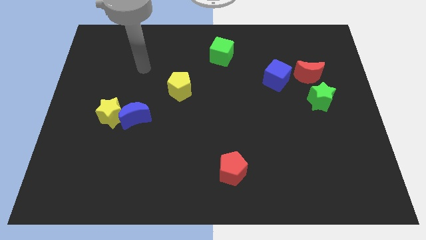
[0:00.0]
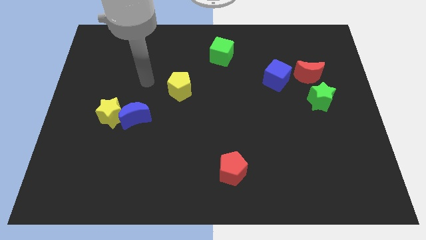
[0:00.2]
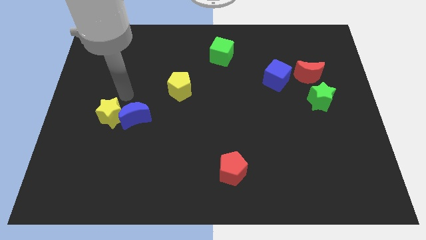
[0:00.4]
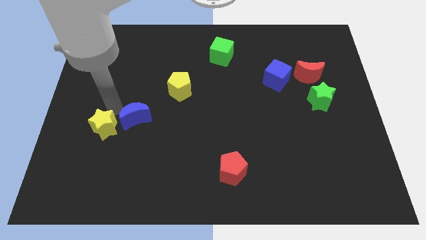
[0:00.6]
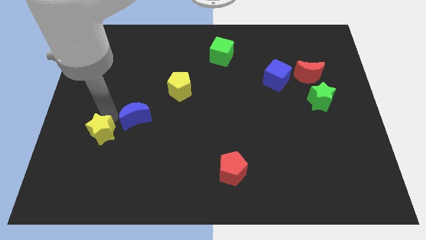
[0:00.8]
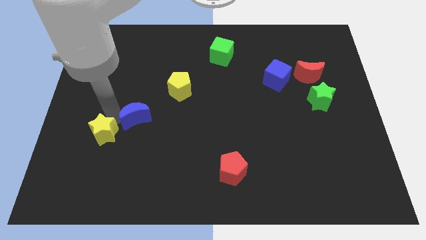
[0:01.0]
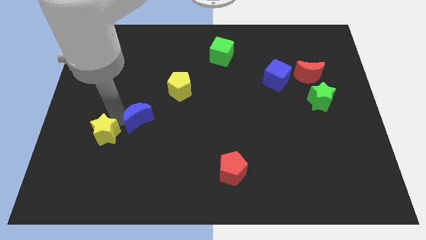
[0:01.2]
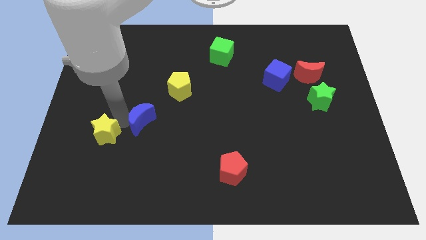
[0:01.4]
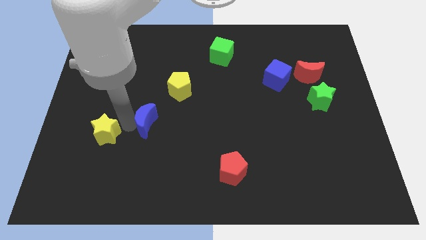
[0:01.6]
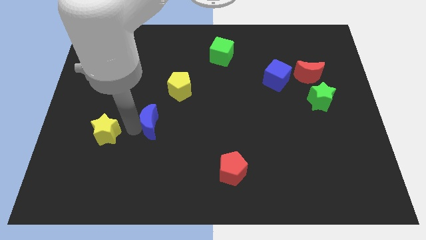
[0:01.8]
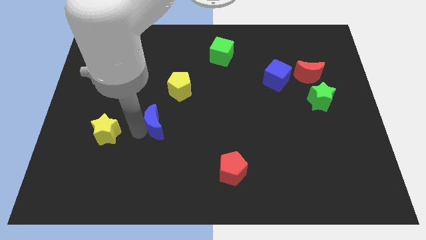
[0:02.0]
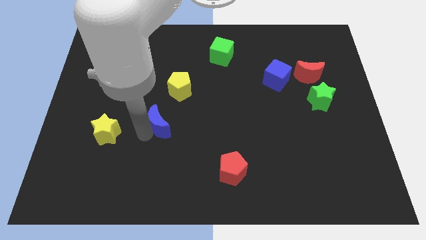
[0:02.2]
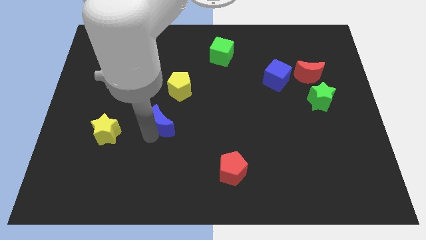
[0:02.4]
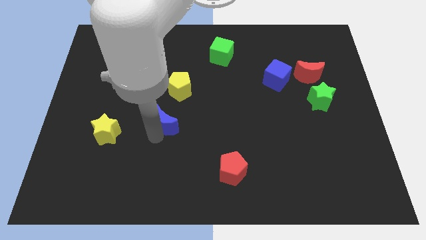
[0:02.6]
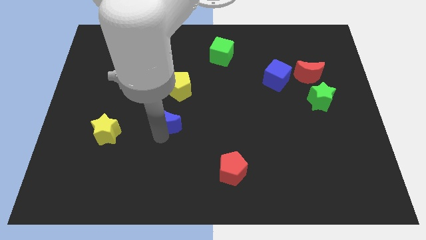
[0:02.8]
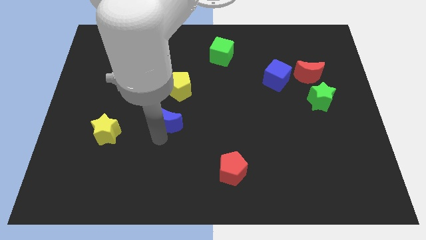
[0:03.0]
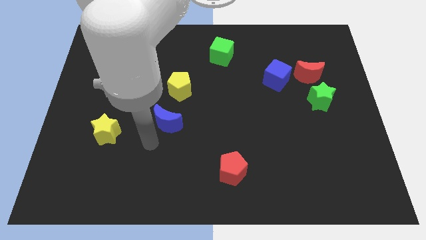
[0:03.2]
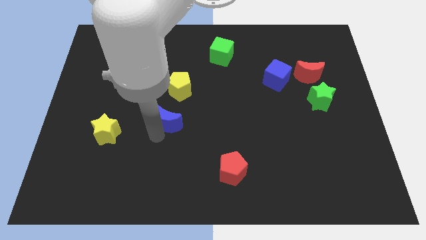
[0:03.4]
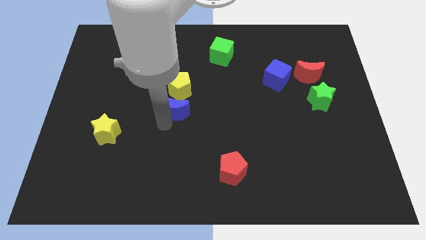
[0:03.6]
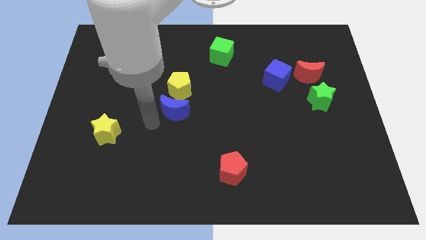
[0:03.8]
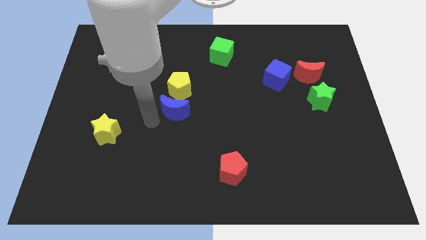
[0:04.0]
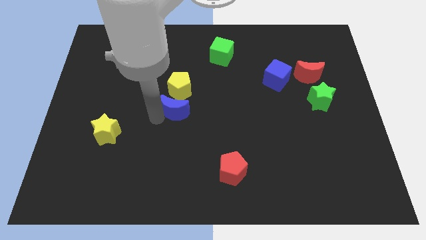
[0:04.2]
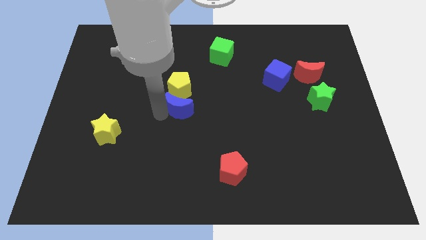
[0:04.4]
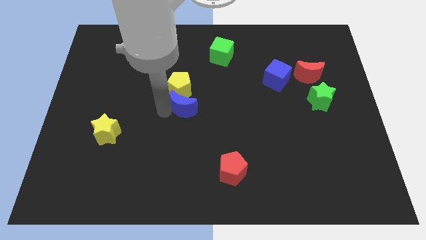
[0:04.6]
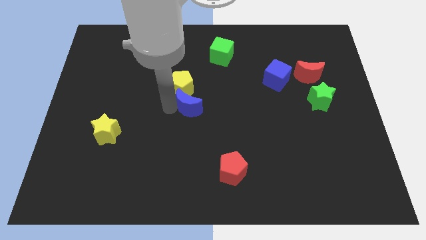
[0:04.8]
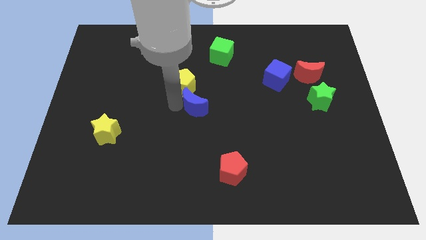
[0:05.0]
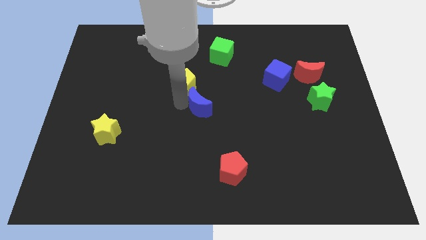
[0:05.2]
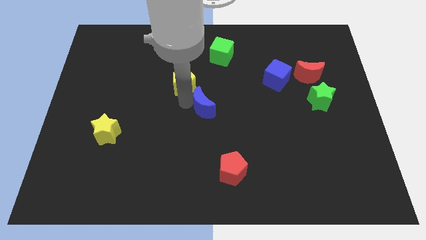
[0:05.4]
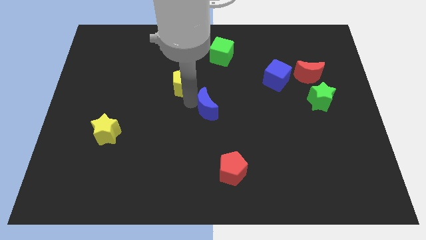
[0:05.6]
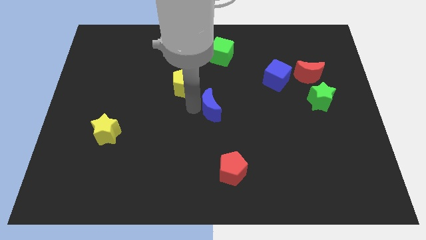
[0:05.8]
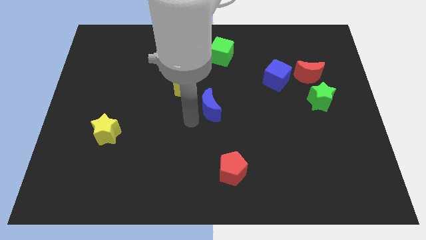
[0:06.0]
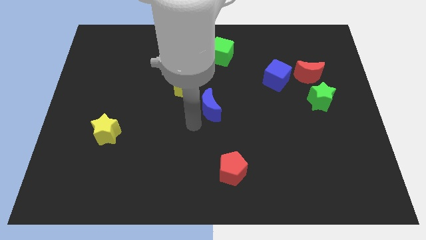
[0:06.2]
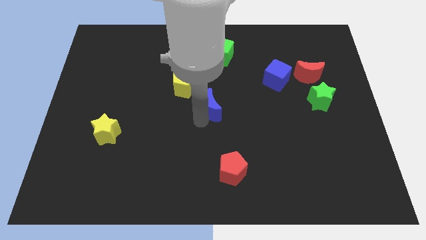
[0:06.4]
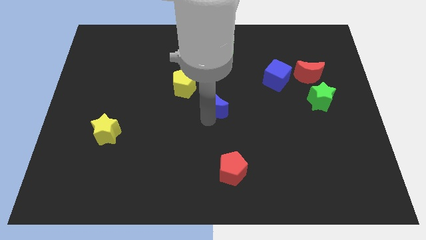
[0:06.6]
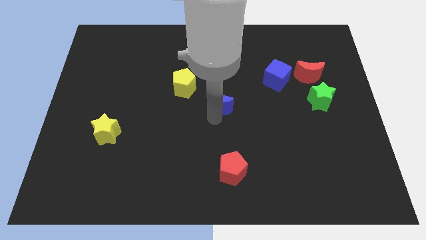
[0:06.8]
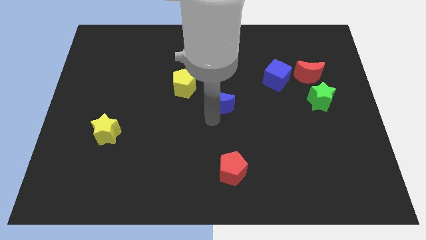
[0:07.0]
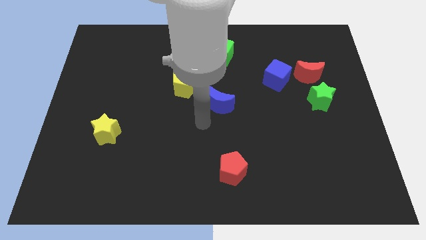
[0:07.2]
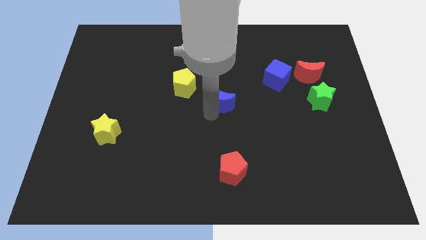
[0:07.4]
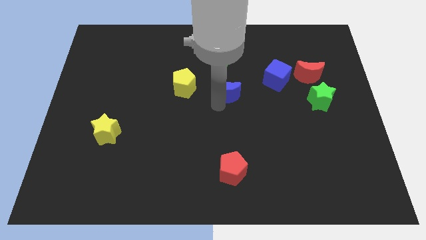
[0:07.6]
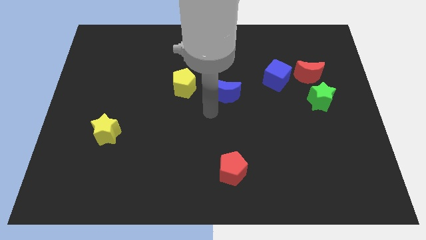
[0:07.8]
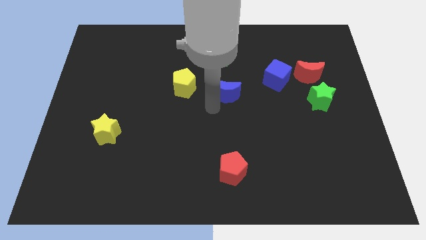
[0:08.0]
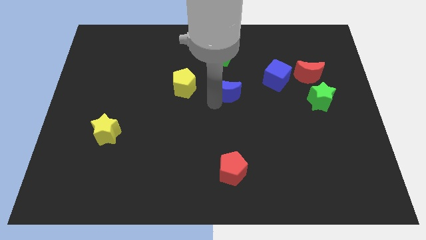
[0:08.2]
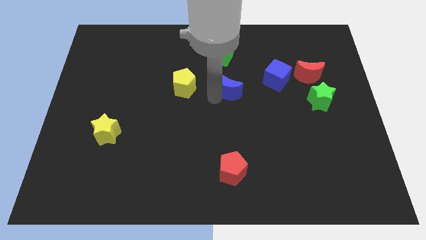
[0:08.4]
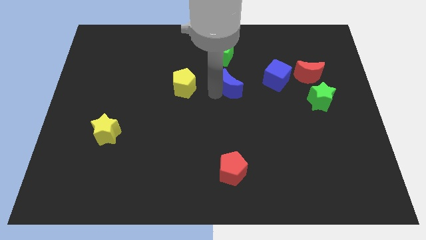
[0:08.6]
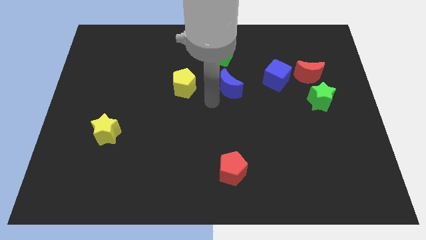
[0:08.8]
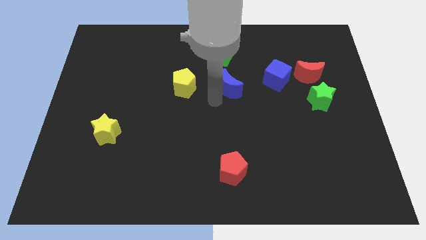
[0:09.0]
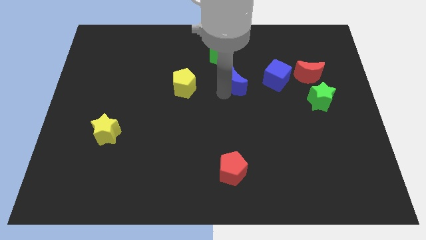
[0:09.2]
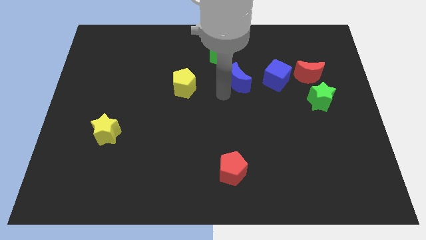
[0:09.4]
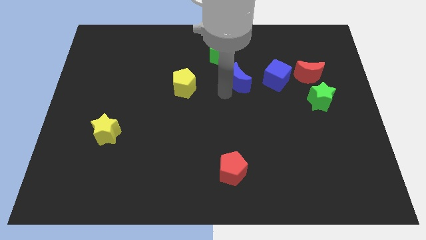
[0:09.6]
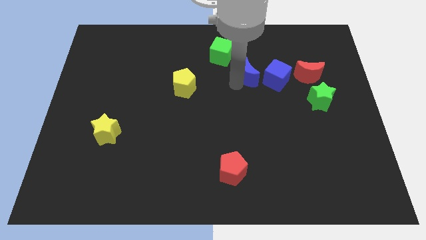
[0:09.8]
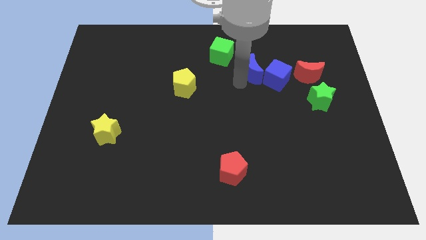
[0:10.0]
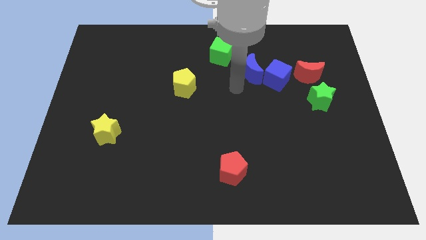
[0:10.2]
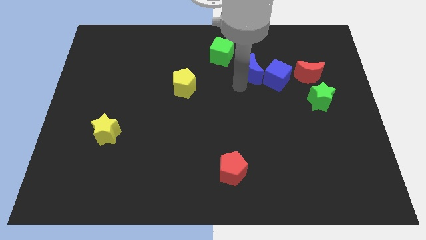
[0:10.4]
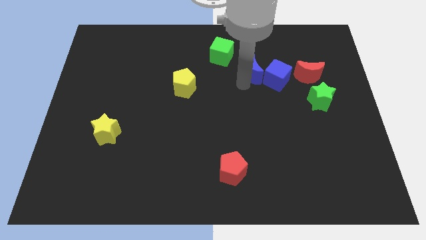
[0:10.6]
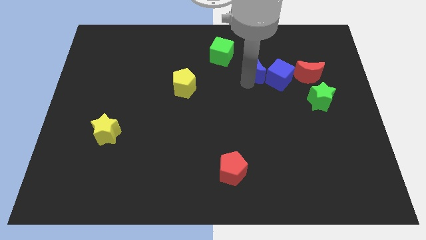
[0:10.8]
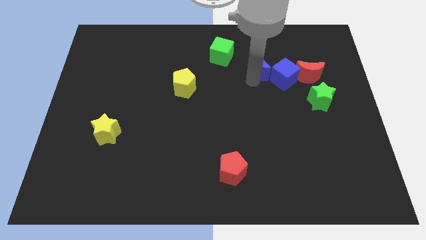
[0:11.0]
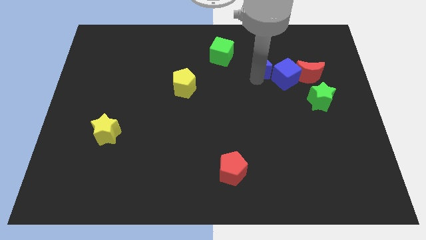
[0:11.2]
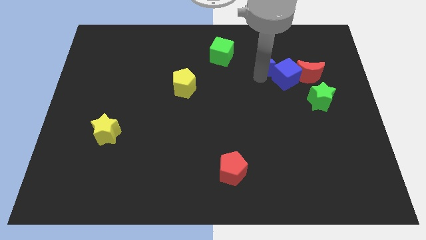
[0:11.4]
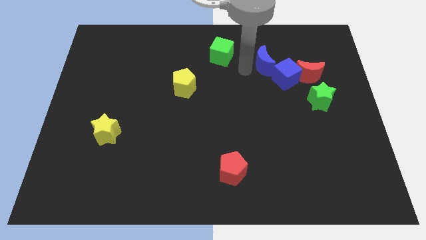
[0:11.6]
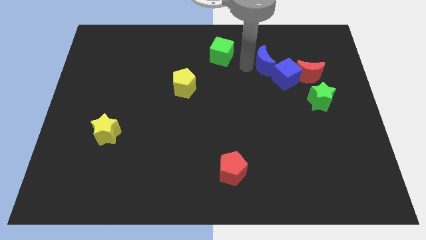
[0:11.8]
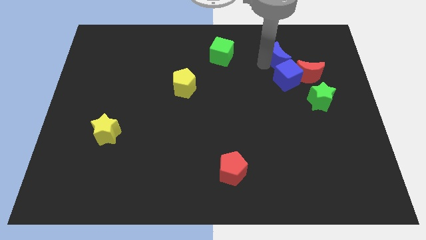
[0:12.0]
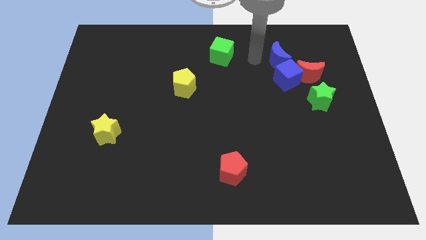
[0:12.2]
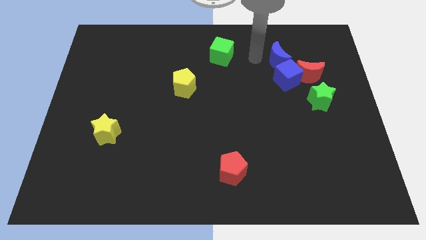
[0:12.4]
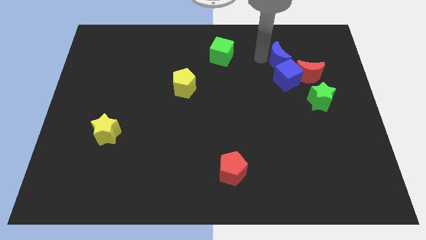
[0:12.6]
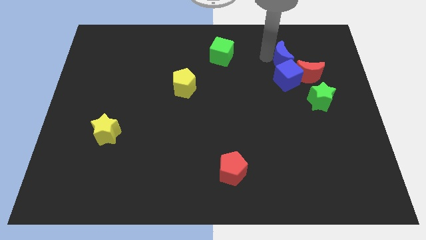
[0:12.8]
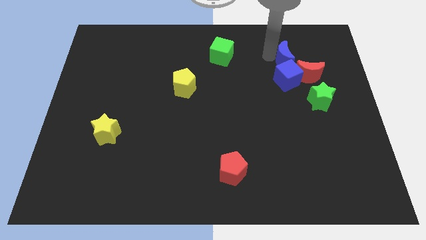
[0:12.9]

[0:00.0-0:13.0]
slide the blue moon to the top right side of the blue cube
